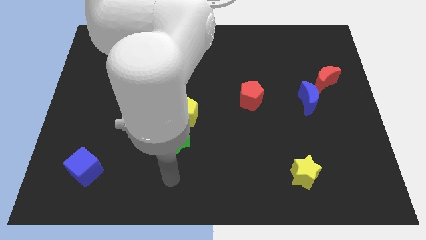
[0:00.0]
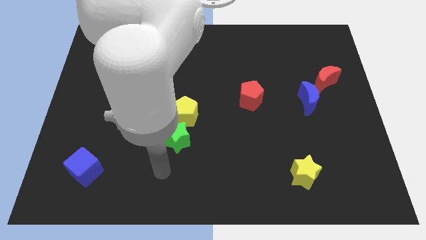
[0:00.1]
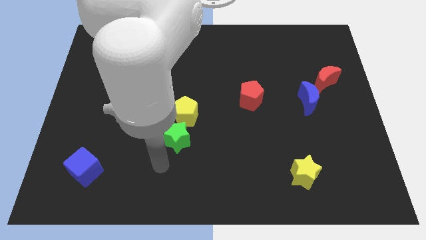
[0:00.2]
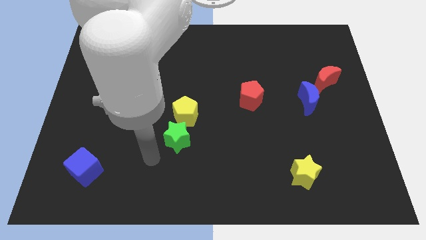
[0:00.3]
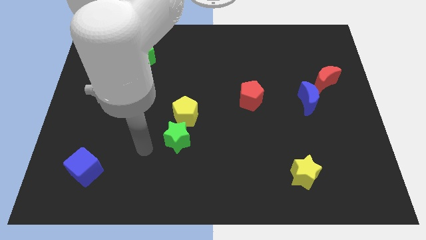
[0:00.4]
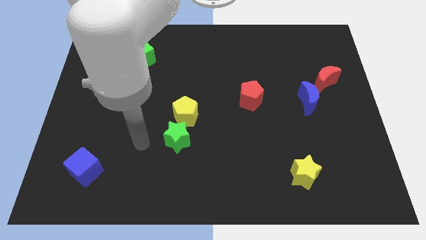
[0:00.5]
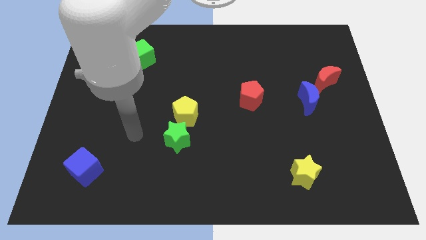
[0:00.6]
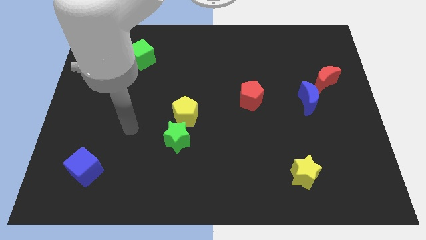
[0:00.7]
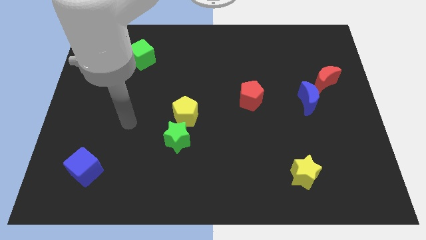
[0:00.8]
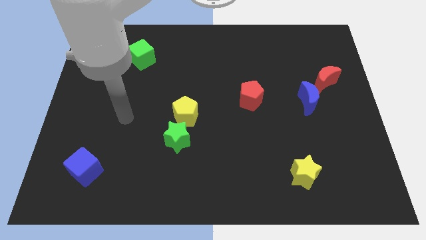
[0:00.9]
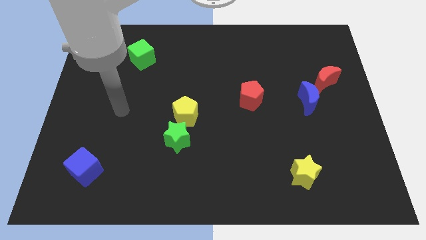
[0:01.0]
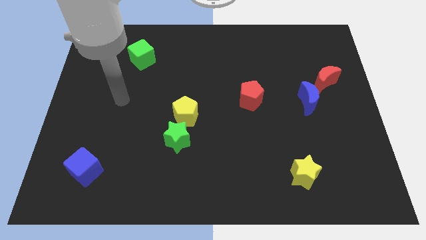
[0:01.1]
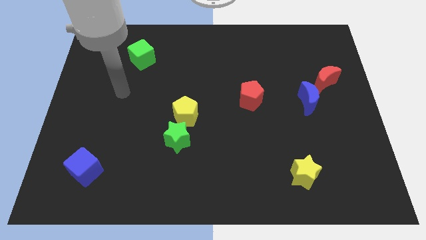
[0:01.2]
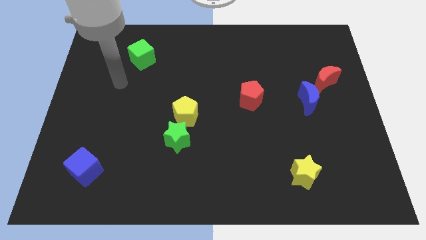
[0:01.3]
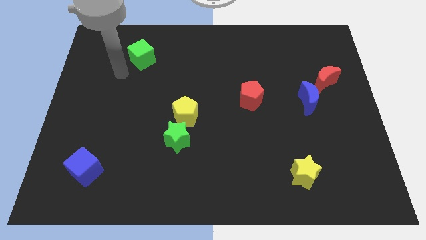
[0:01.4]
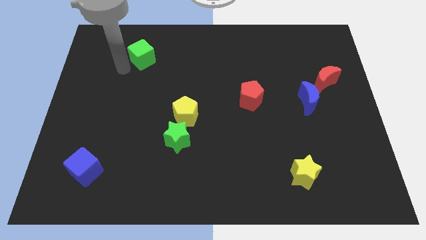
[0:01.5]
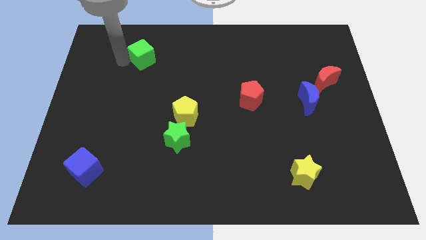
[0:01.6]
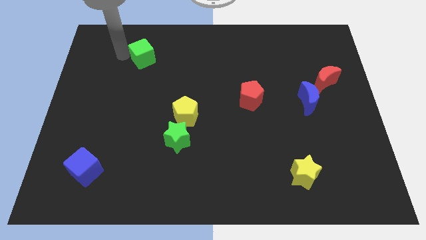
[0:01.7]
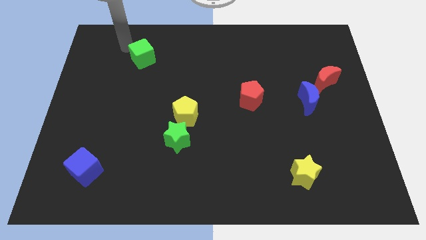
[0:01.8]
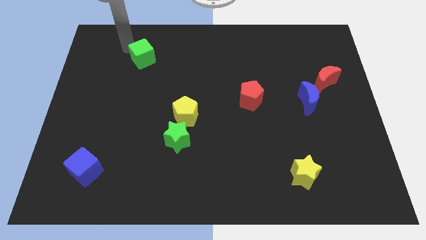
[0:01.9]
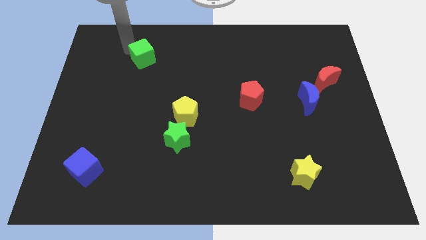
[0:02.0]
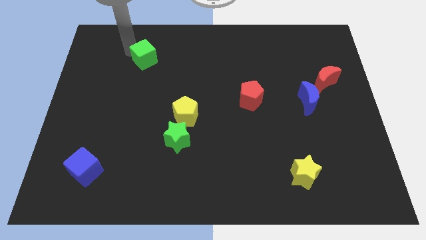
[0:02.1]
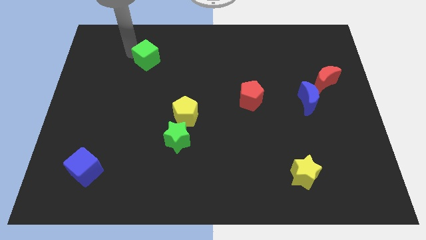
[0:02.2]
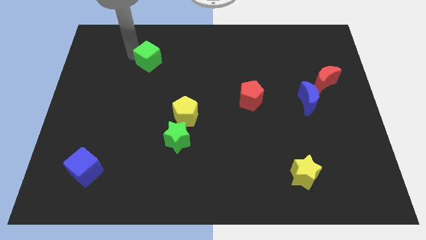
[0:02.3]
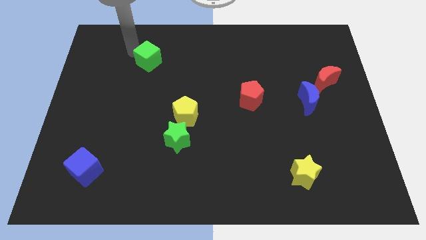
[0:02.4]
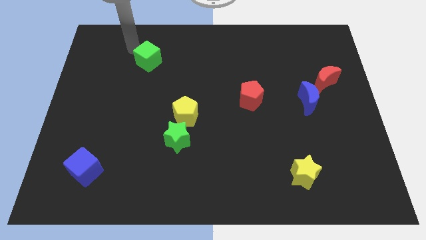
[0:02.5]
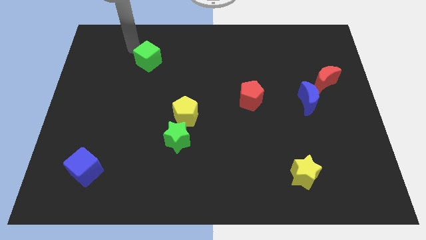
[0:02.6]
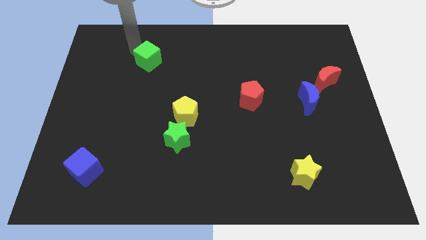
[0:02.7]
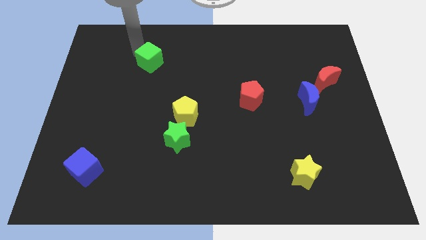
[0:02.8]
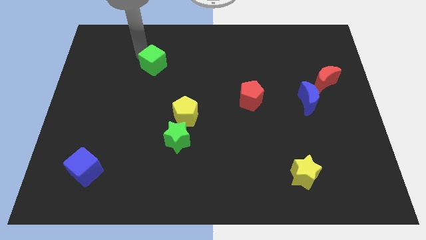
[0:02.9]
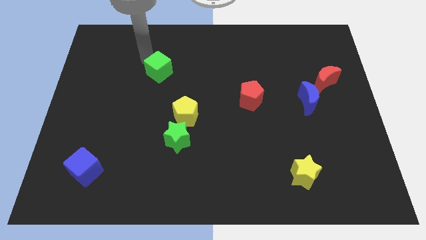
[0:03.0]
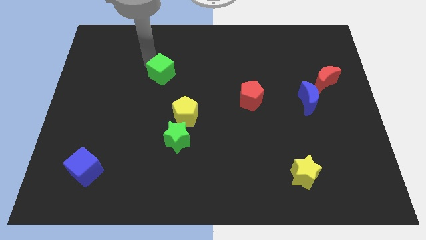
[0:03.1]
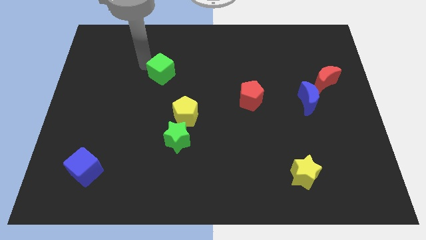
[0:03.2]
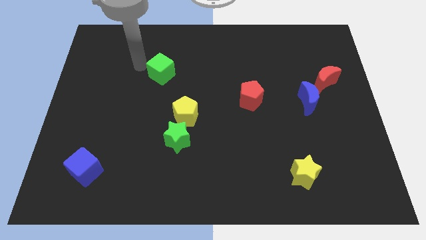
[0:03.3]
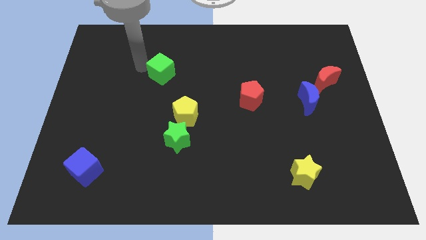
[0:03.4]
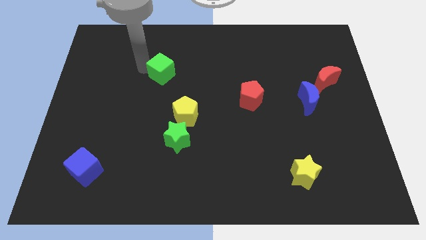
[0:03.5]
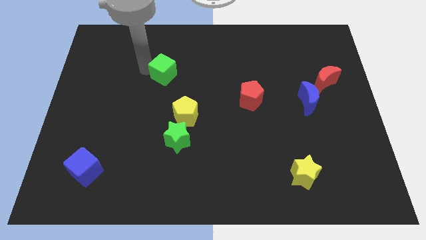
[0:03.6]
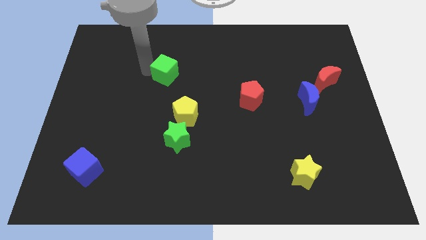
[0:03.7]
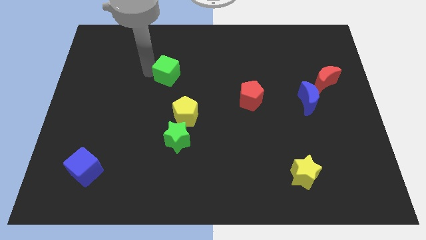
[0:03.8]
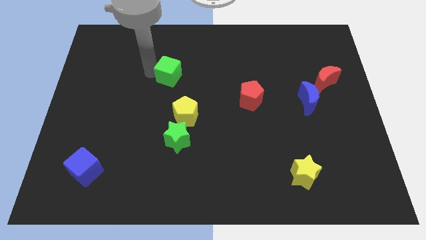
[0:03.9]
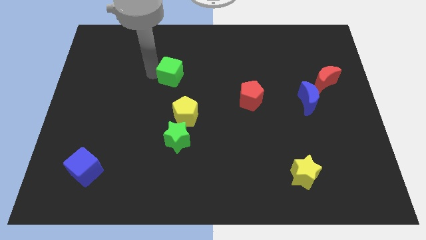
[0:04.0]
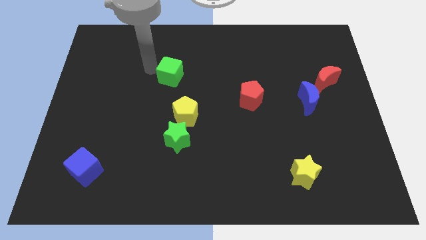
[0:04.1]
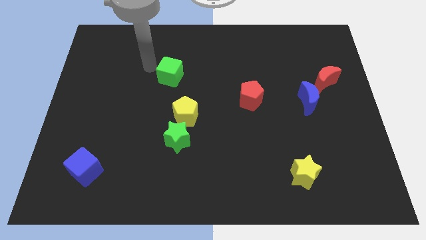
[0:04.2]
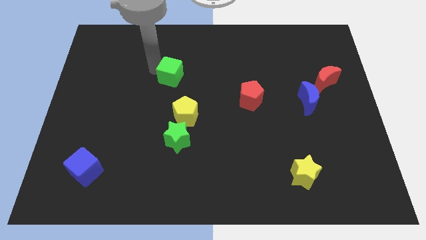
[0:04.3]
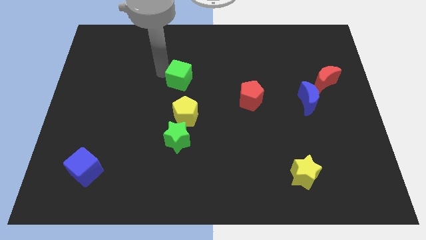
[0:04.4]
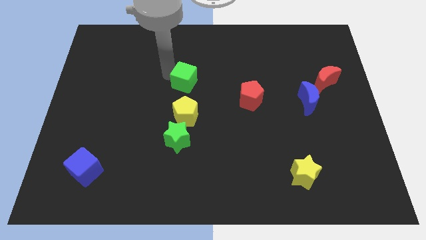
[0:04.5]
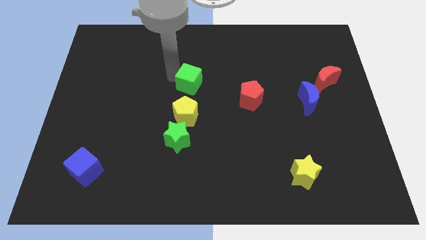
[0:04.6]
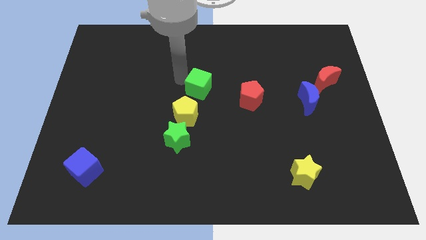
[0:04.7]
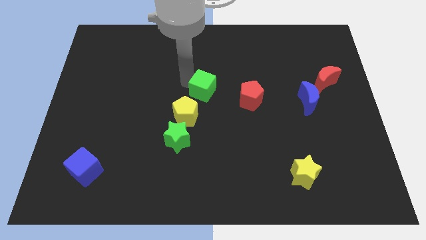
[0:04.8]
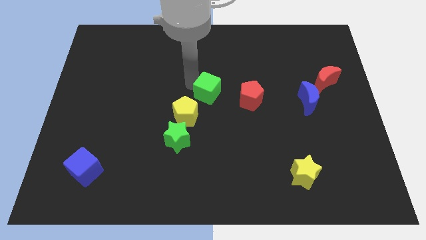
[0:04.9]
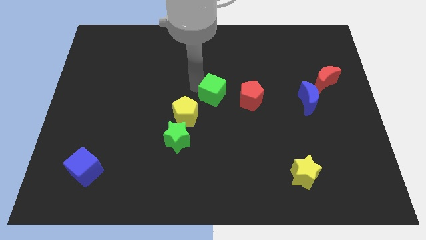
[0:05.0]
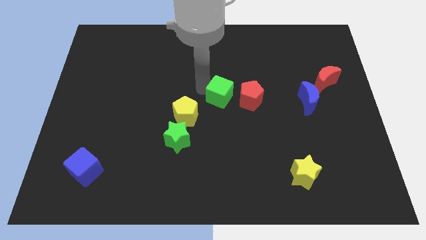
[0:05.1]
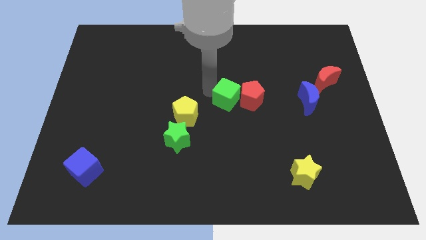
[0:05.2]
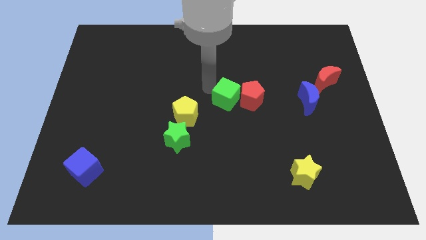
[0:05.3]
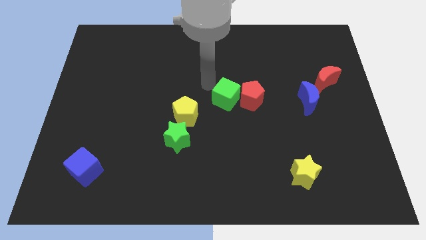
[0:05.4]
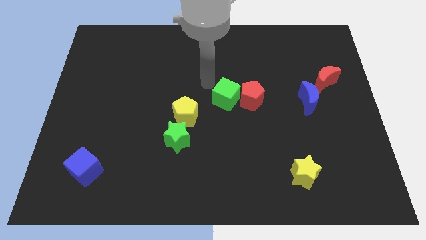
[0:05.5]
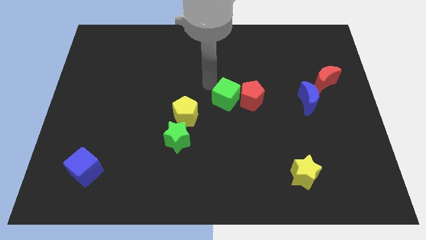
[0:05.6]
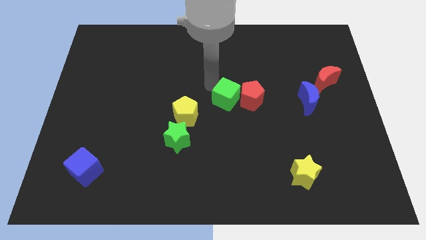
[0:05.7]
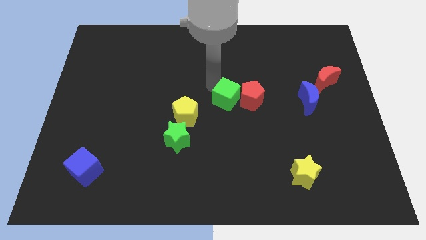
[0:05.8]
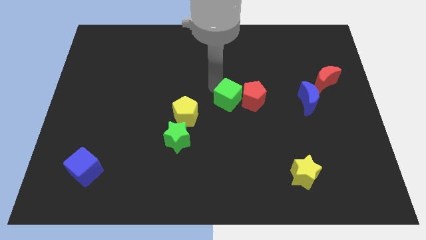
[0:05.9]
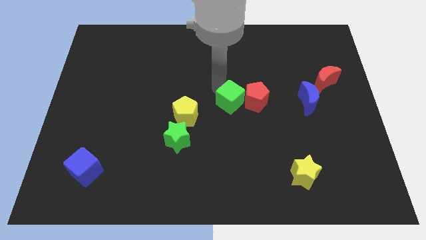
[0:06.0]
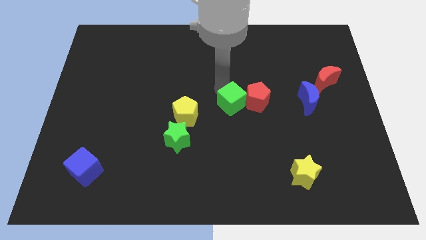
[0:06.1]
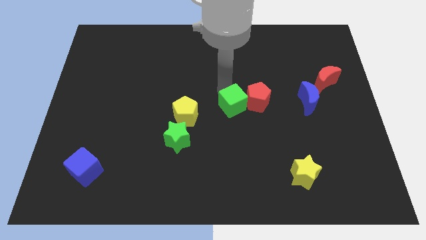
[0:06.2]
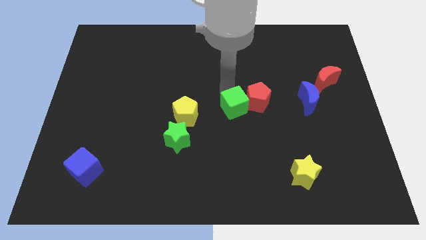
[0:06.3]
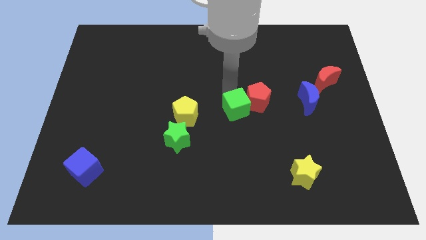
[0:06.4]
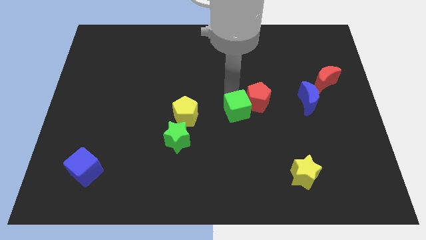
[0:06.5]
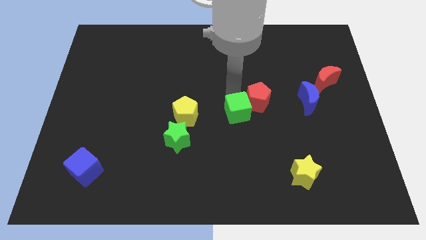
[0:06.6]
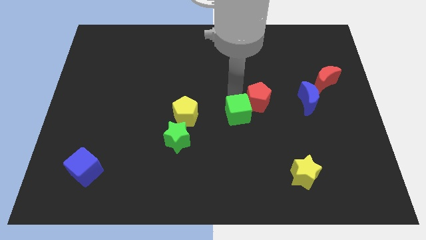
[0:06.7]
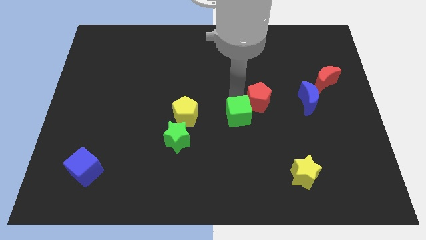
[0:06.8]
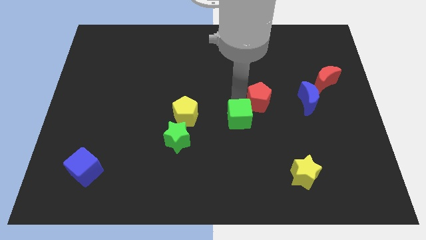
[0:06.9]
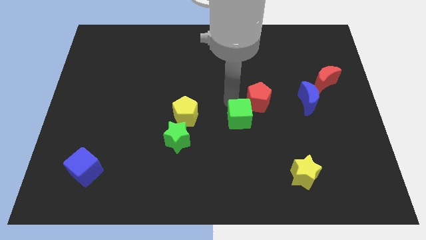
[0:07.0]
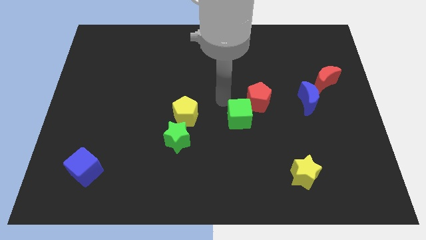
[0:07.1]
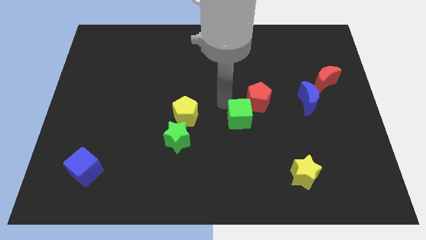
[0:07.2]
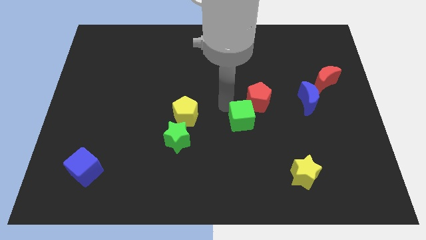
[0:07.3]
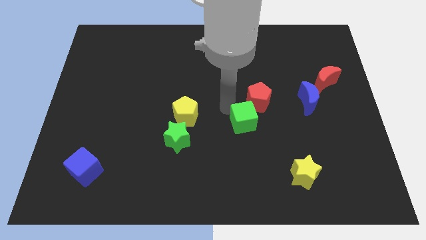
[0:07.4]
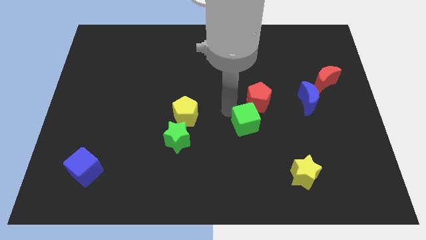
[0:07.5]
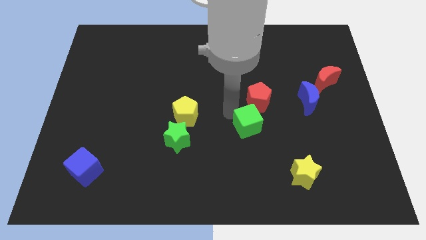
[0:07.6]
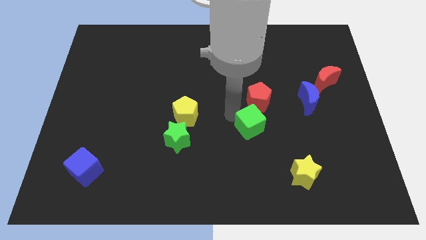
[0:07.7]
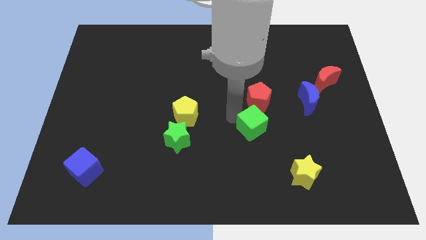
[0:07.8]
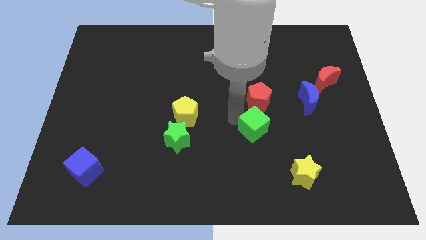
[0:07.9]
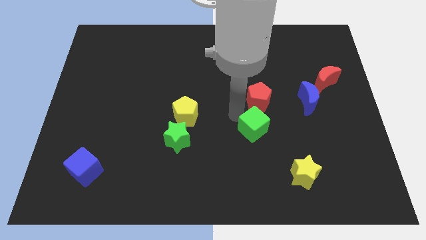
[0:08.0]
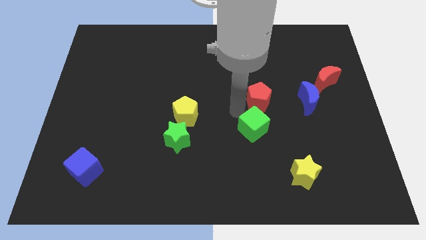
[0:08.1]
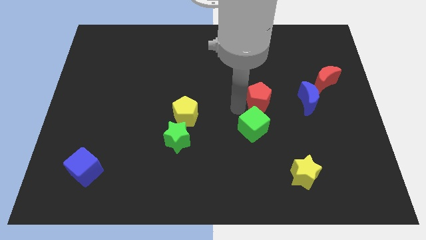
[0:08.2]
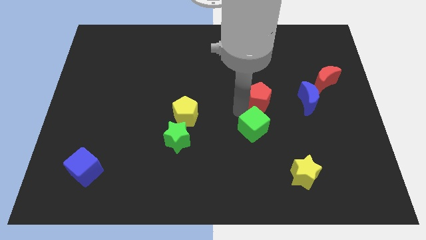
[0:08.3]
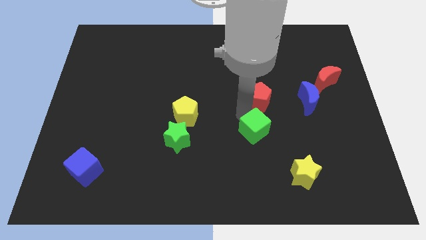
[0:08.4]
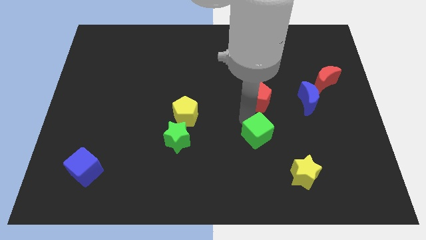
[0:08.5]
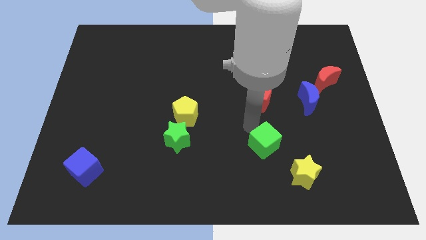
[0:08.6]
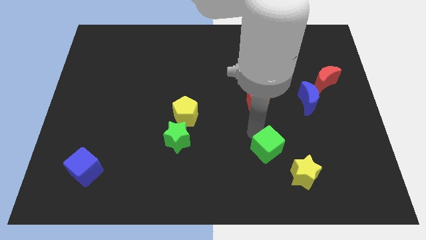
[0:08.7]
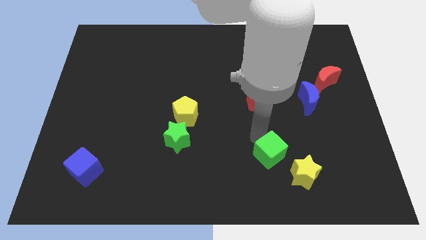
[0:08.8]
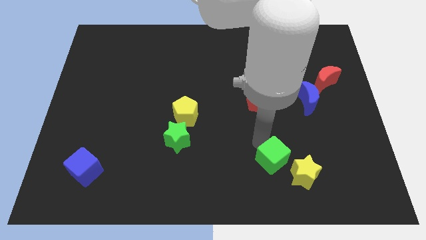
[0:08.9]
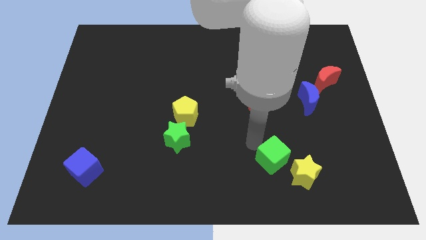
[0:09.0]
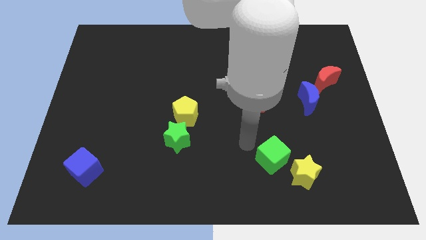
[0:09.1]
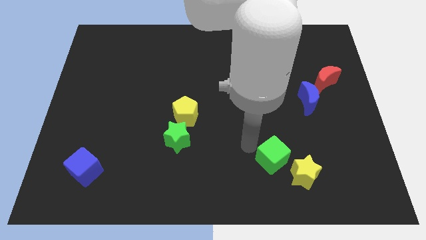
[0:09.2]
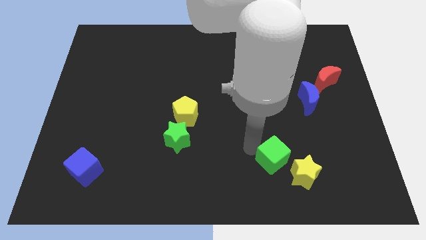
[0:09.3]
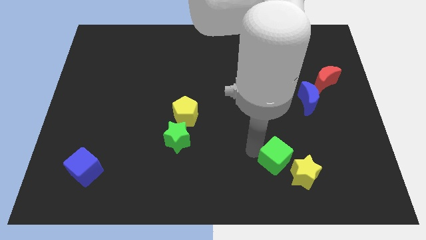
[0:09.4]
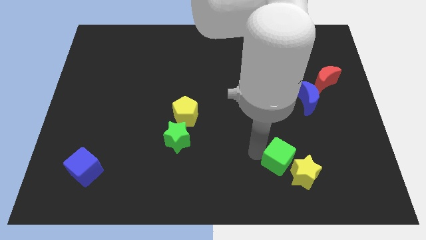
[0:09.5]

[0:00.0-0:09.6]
push the green cube towards the yellow star
